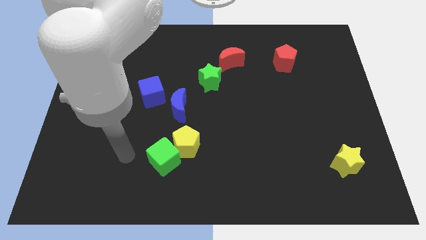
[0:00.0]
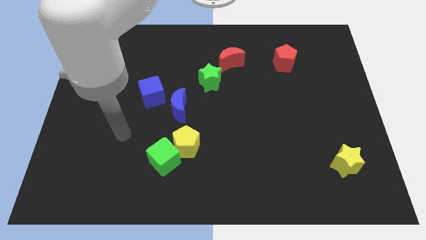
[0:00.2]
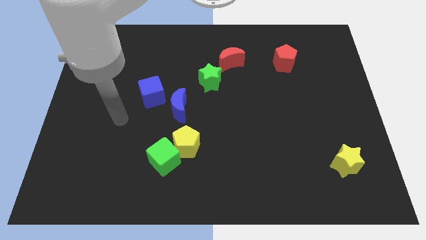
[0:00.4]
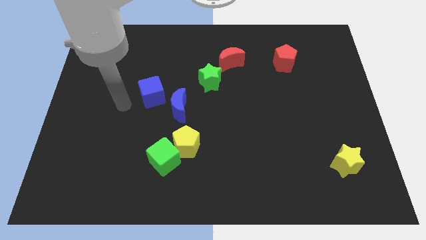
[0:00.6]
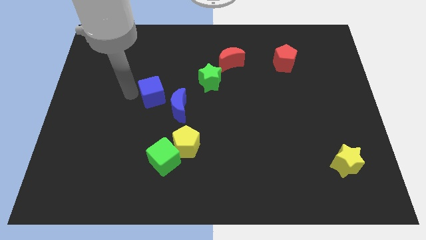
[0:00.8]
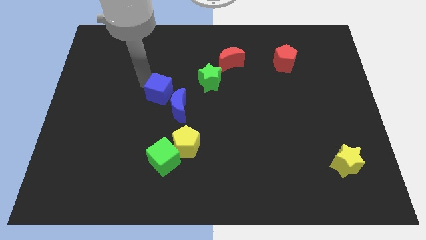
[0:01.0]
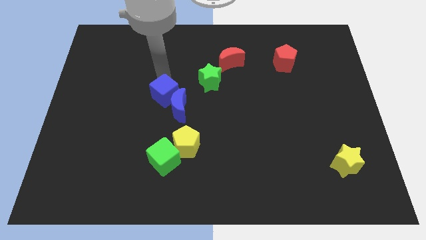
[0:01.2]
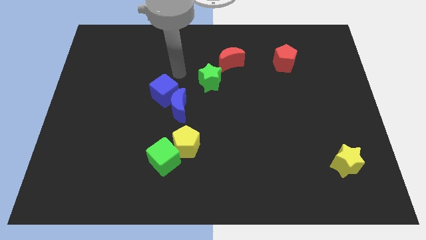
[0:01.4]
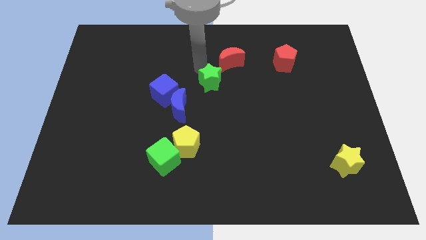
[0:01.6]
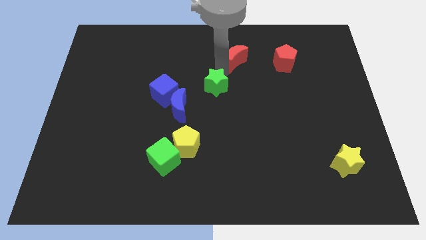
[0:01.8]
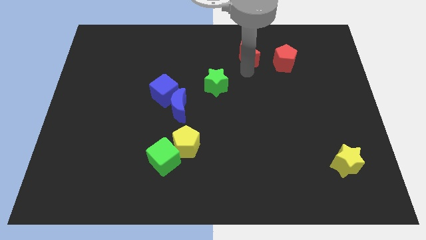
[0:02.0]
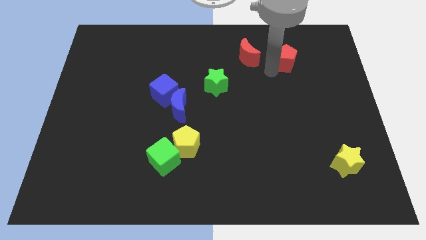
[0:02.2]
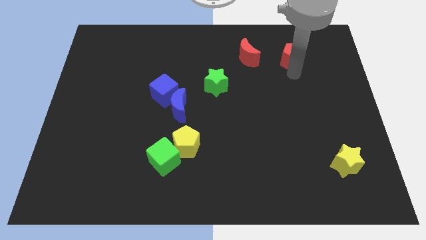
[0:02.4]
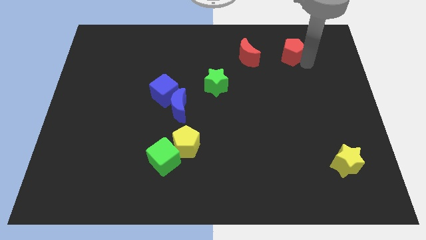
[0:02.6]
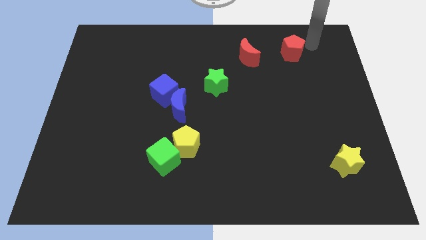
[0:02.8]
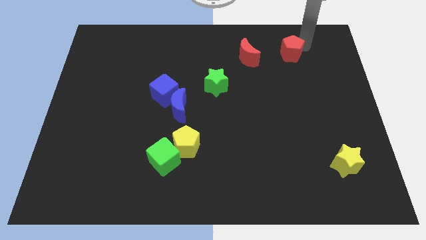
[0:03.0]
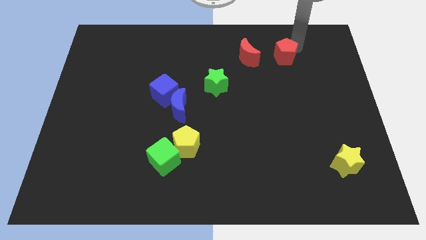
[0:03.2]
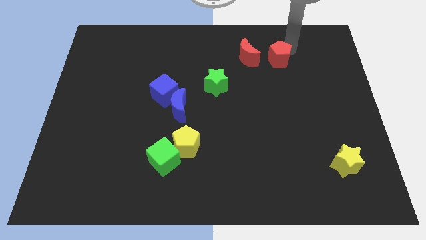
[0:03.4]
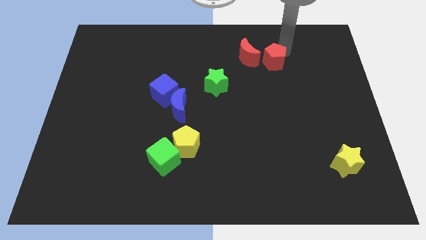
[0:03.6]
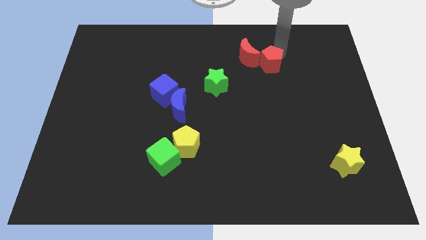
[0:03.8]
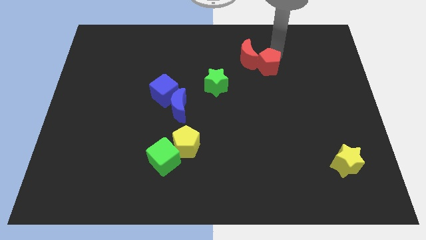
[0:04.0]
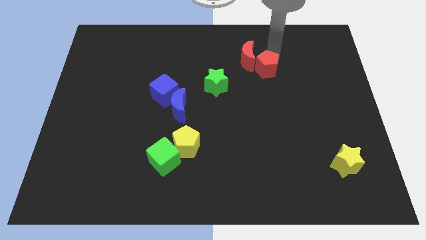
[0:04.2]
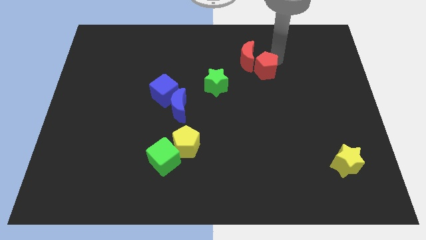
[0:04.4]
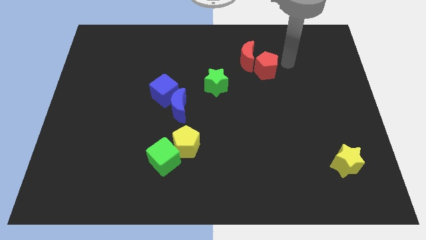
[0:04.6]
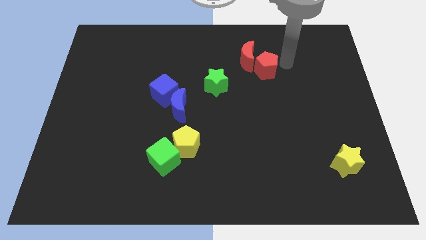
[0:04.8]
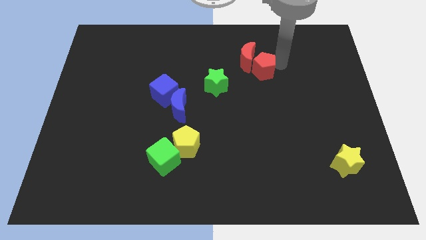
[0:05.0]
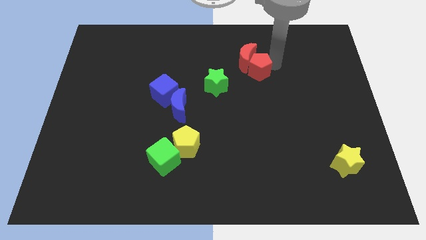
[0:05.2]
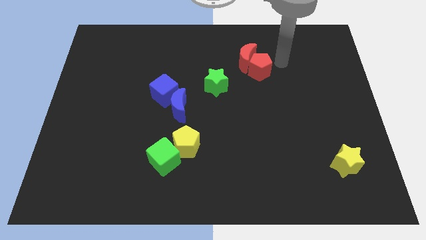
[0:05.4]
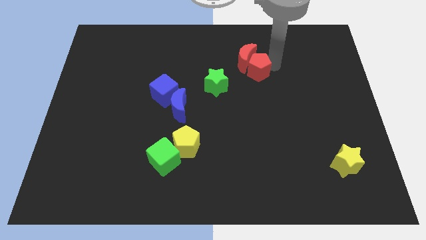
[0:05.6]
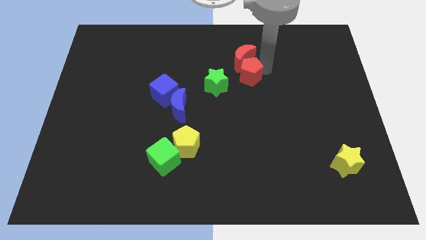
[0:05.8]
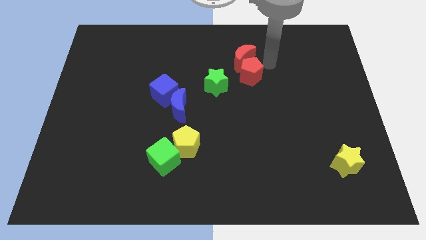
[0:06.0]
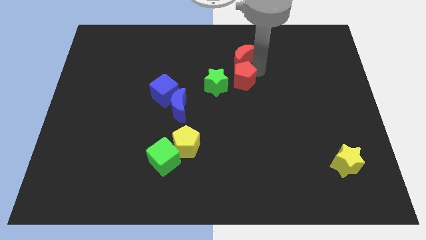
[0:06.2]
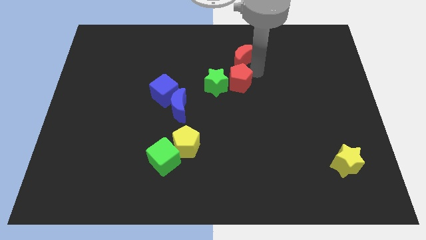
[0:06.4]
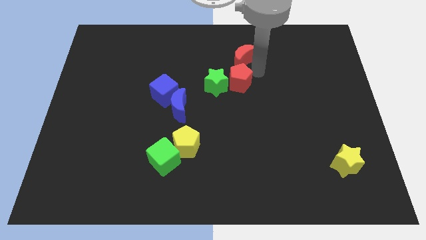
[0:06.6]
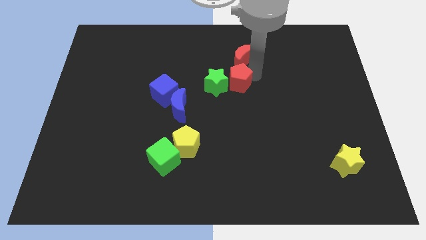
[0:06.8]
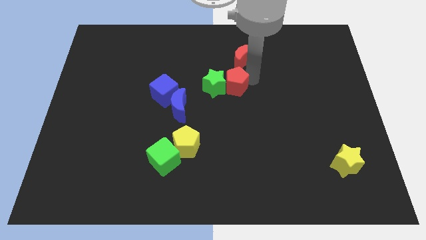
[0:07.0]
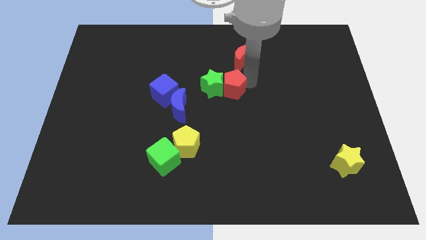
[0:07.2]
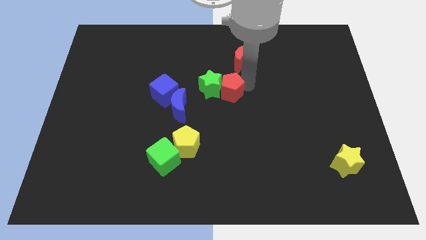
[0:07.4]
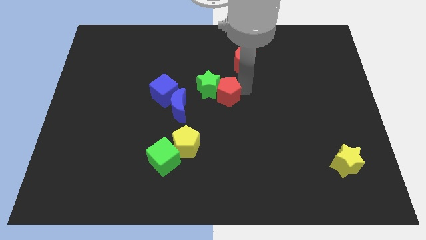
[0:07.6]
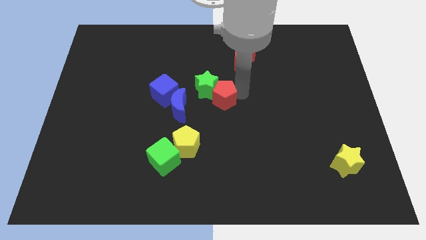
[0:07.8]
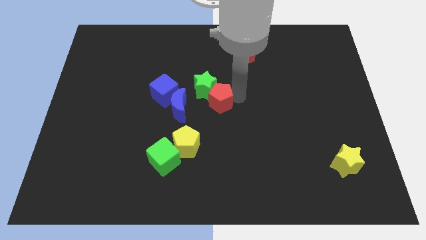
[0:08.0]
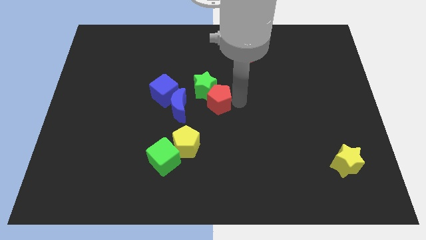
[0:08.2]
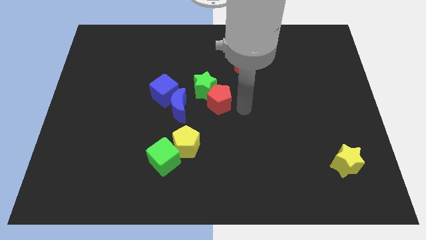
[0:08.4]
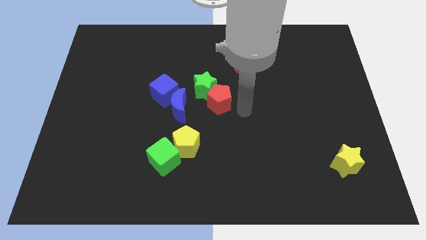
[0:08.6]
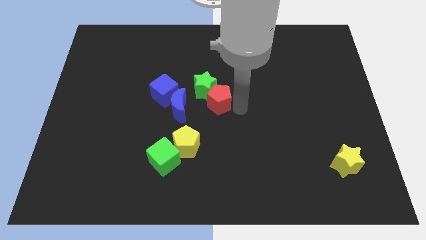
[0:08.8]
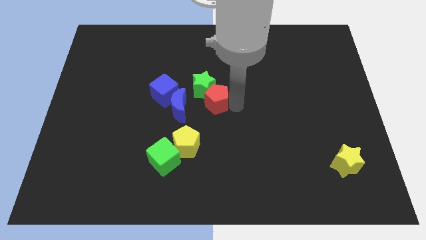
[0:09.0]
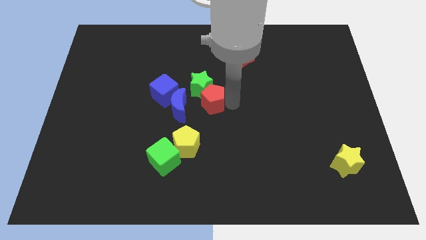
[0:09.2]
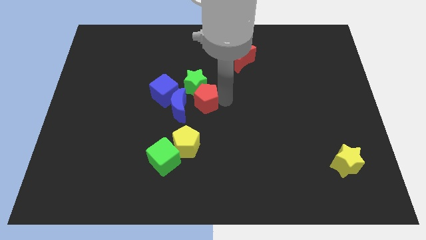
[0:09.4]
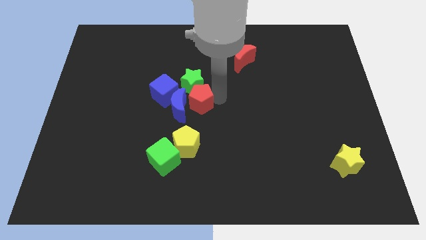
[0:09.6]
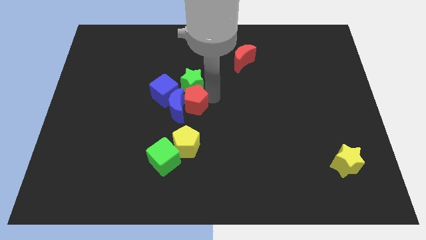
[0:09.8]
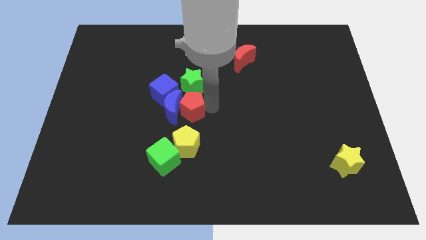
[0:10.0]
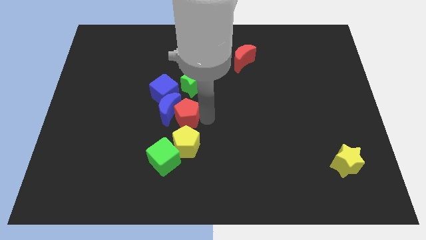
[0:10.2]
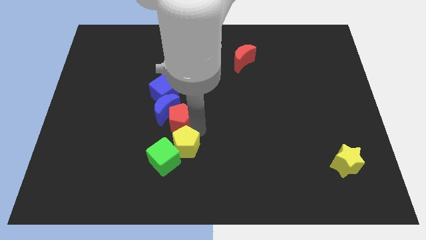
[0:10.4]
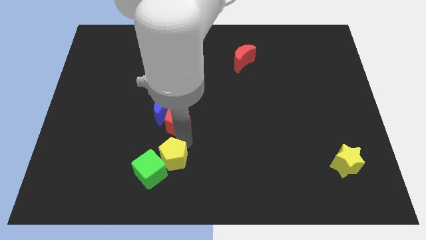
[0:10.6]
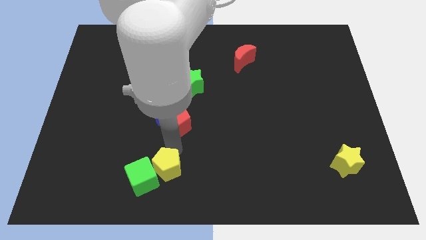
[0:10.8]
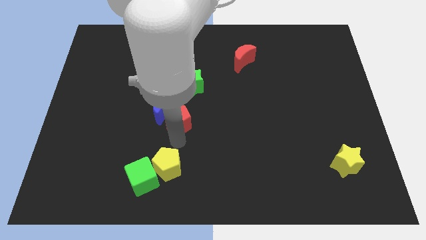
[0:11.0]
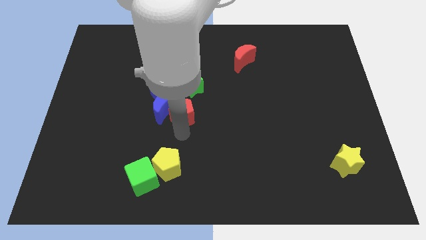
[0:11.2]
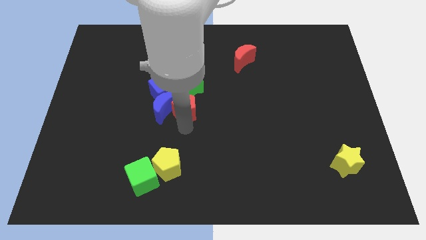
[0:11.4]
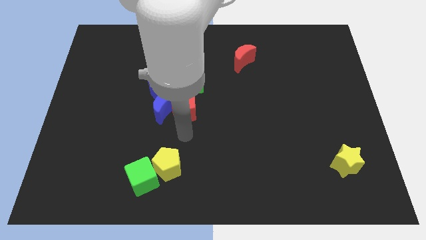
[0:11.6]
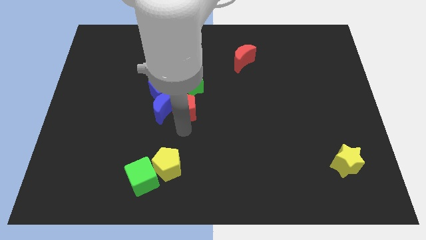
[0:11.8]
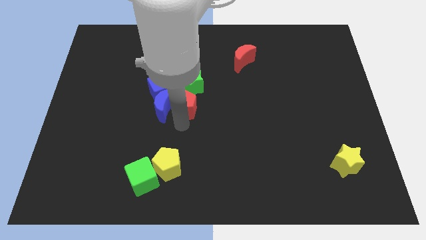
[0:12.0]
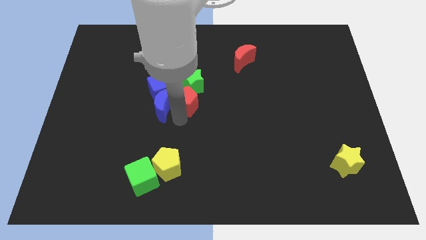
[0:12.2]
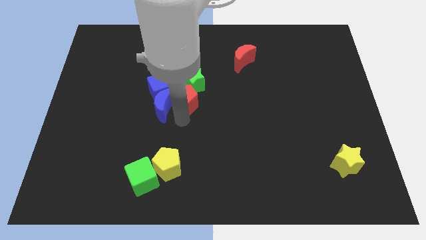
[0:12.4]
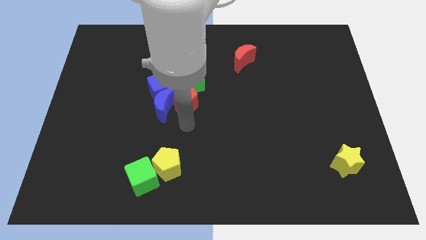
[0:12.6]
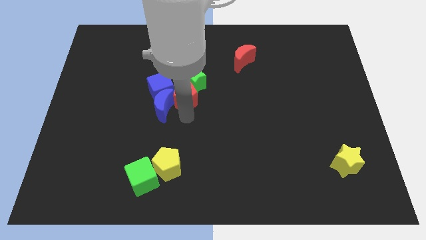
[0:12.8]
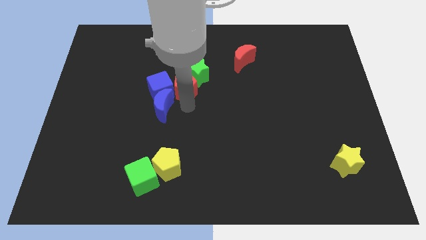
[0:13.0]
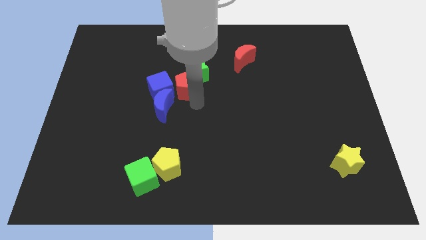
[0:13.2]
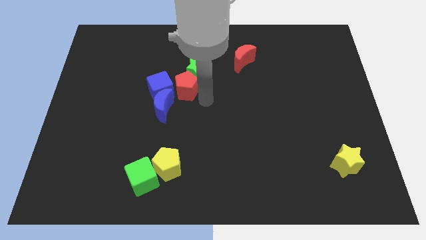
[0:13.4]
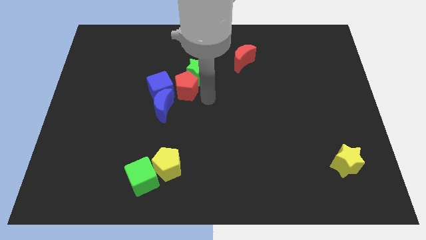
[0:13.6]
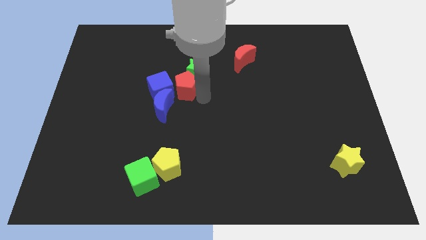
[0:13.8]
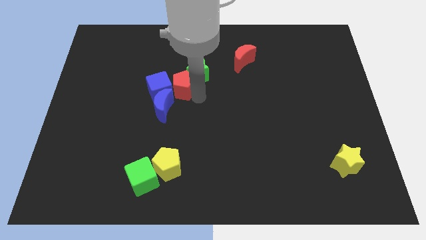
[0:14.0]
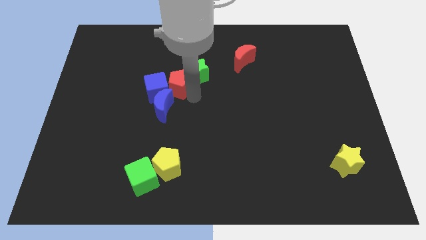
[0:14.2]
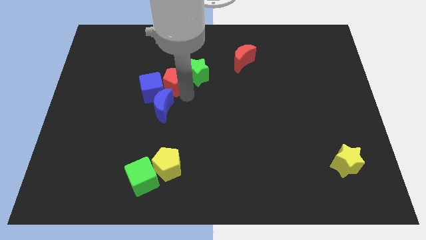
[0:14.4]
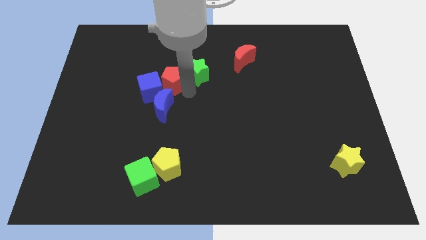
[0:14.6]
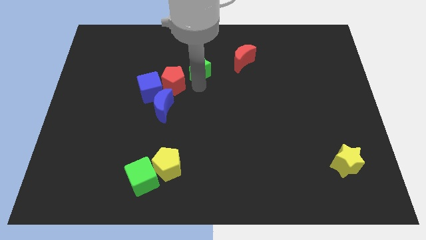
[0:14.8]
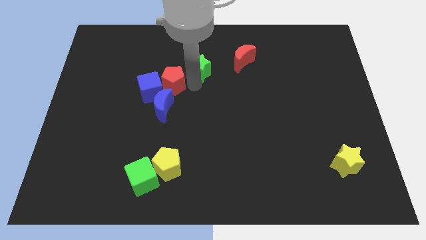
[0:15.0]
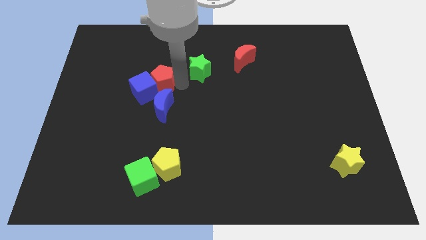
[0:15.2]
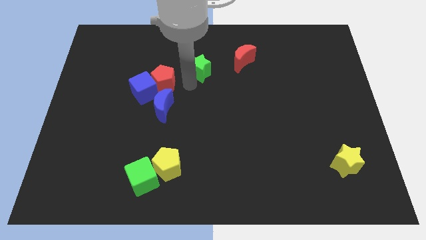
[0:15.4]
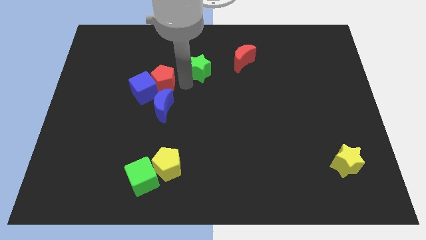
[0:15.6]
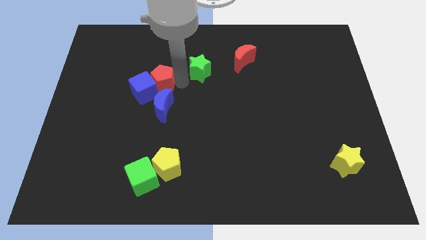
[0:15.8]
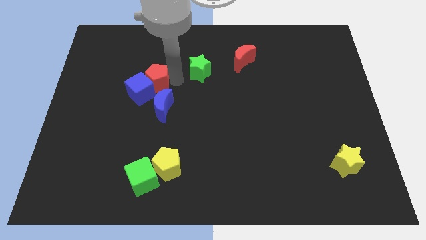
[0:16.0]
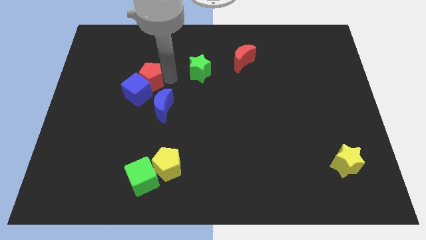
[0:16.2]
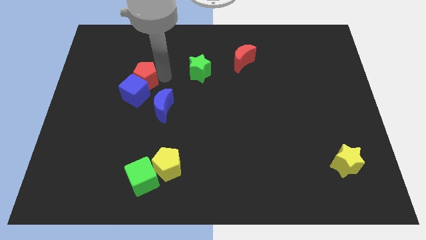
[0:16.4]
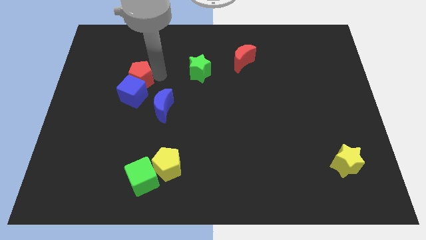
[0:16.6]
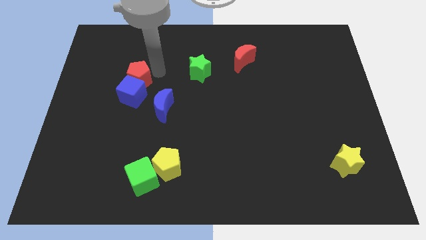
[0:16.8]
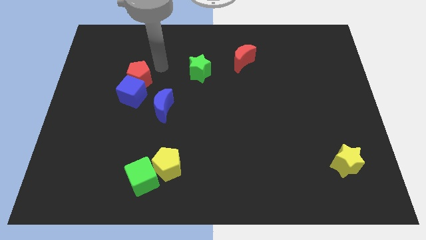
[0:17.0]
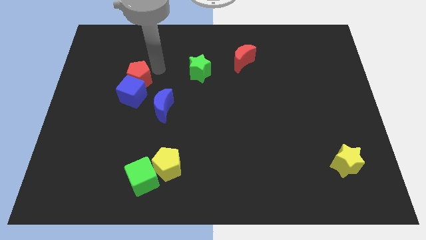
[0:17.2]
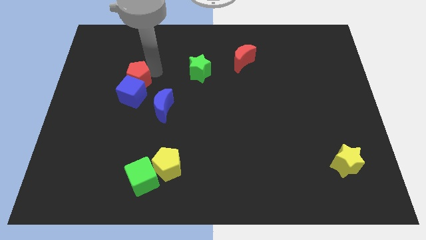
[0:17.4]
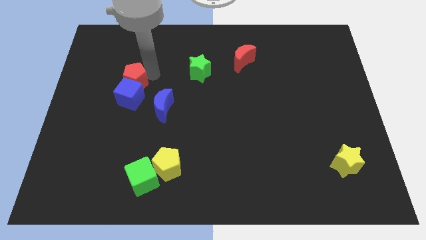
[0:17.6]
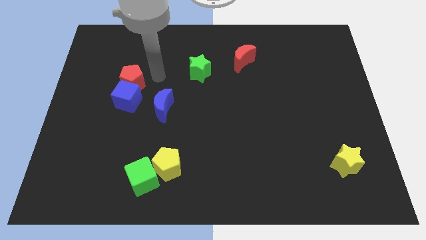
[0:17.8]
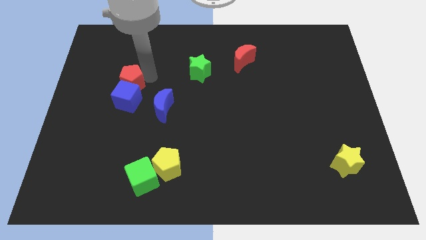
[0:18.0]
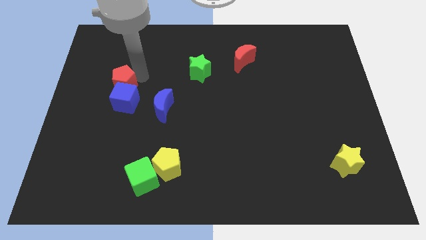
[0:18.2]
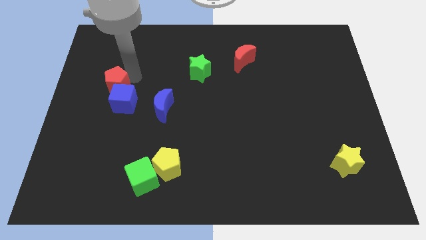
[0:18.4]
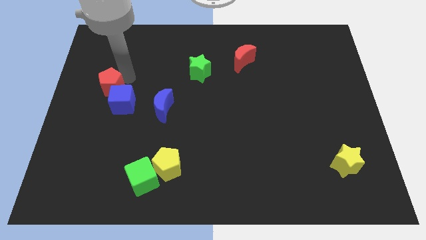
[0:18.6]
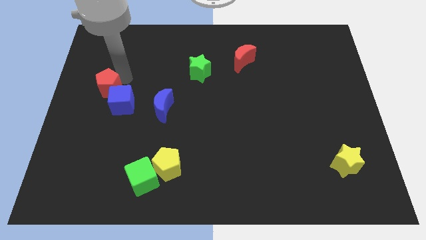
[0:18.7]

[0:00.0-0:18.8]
move the red pentagon to the left side
